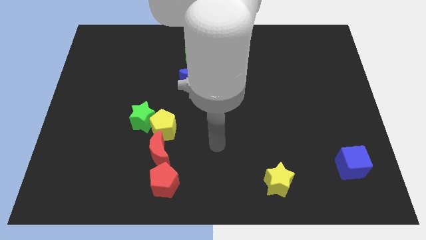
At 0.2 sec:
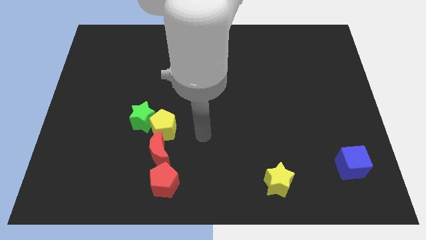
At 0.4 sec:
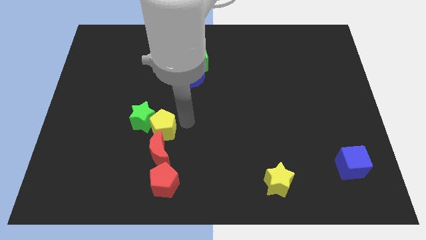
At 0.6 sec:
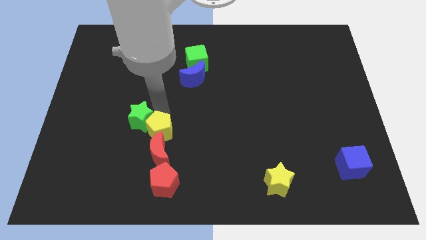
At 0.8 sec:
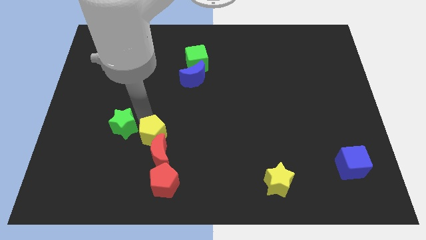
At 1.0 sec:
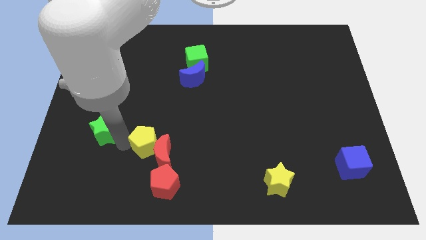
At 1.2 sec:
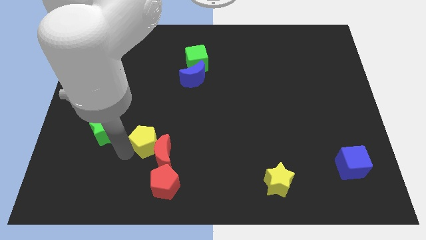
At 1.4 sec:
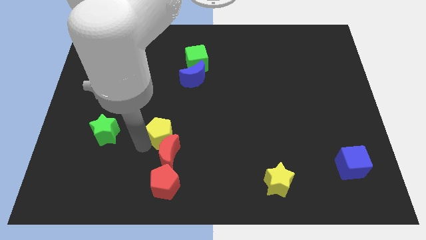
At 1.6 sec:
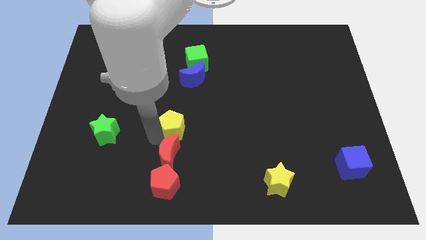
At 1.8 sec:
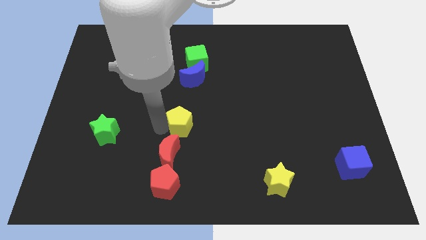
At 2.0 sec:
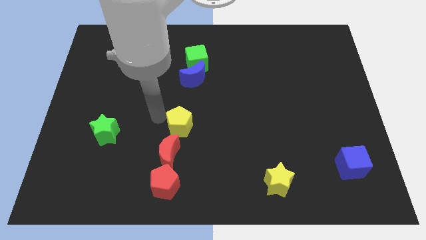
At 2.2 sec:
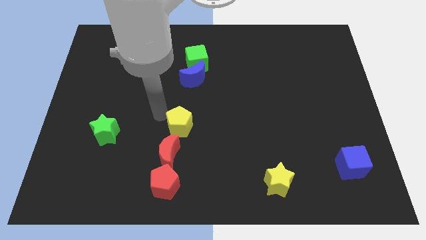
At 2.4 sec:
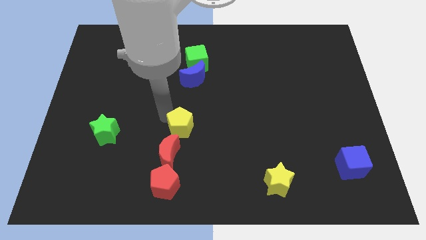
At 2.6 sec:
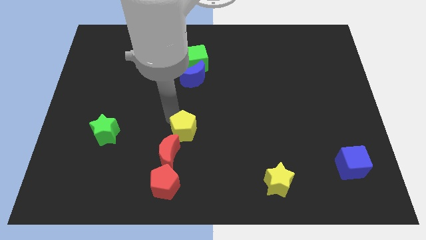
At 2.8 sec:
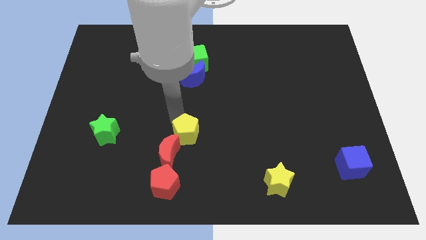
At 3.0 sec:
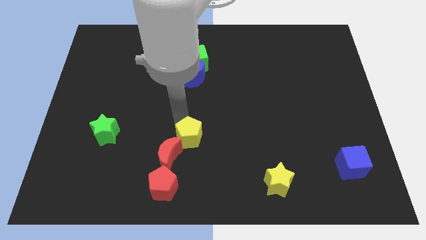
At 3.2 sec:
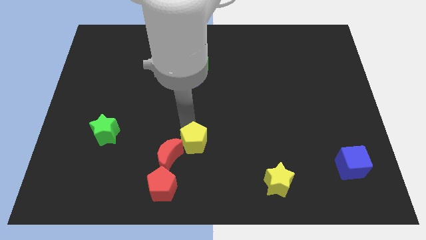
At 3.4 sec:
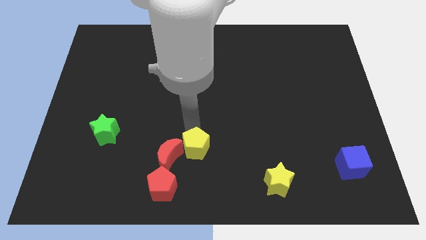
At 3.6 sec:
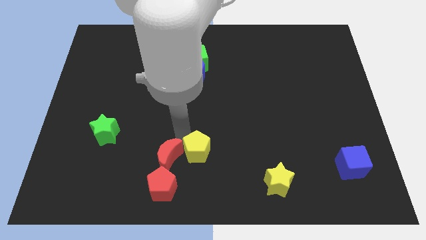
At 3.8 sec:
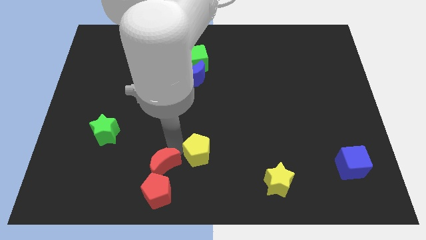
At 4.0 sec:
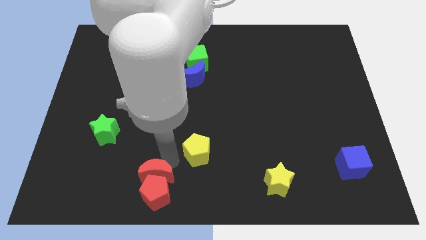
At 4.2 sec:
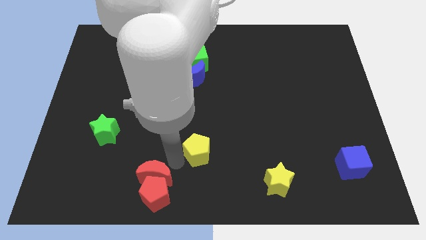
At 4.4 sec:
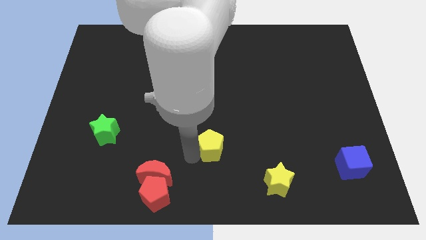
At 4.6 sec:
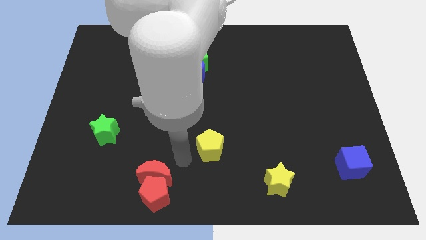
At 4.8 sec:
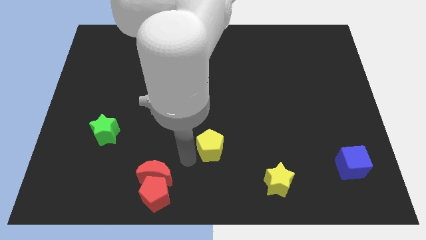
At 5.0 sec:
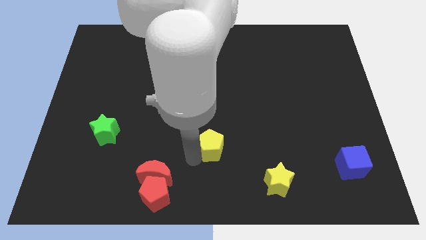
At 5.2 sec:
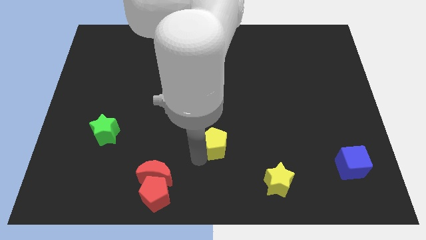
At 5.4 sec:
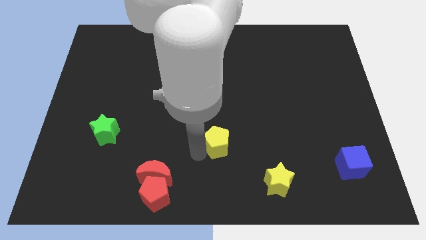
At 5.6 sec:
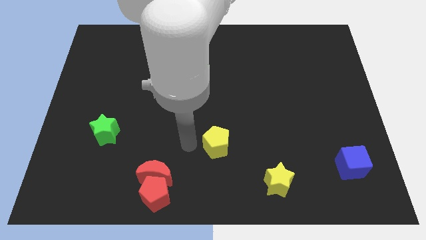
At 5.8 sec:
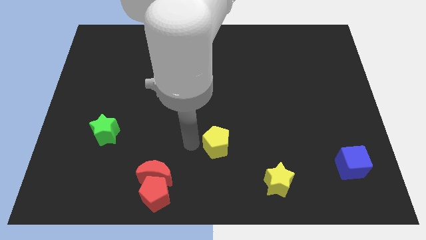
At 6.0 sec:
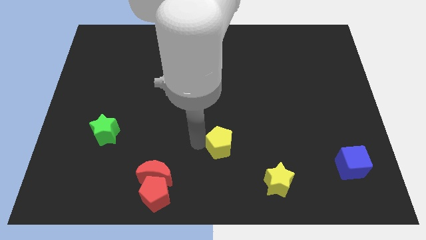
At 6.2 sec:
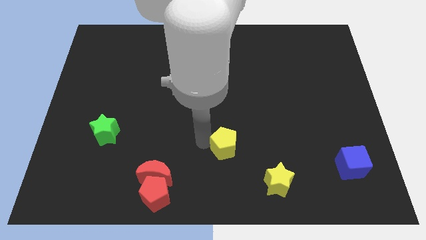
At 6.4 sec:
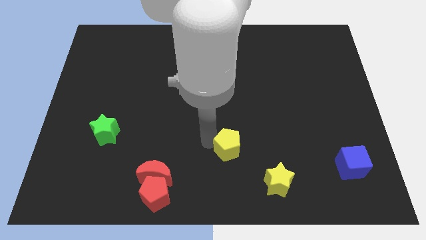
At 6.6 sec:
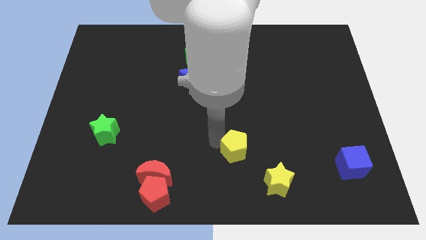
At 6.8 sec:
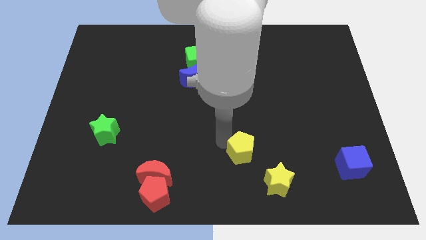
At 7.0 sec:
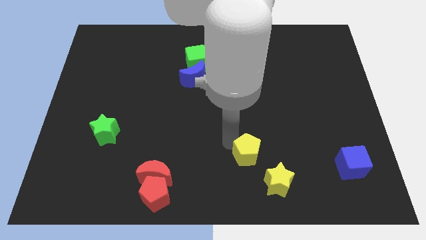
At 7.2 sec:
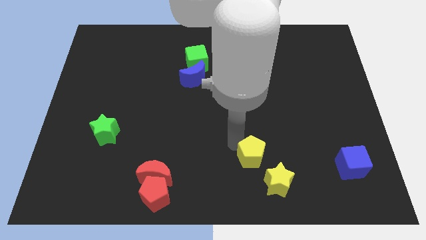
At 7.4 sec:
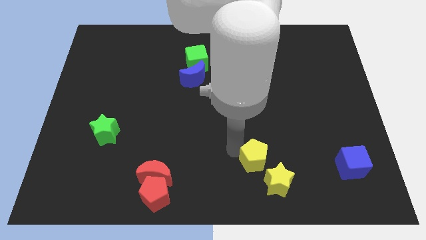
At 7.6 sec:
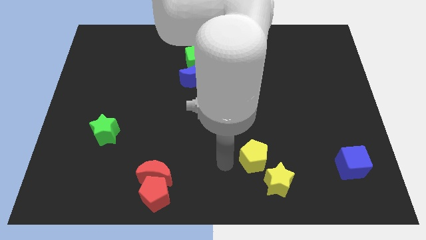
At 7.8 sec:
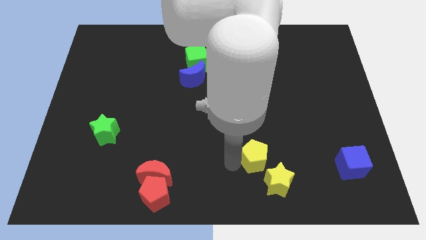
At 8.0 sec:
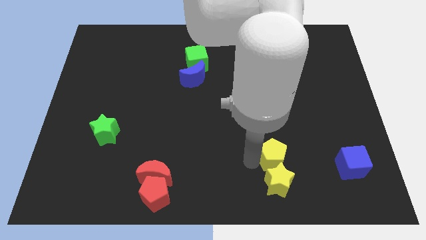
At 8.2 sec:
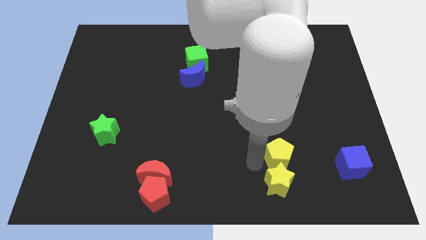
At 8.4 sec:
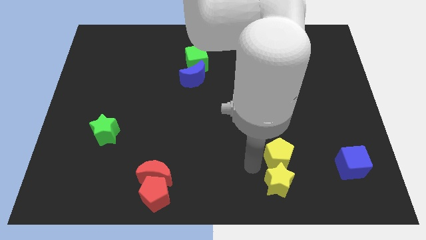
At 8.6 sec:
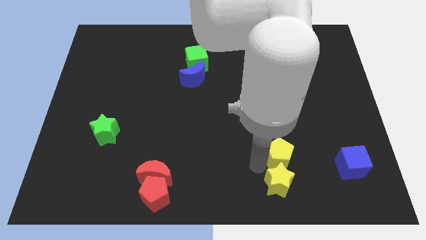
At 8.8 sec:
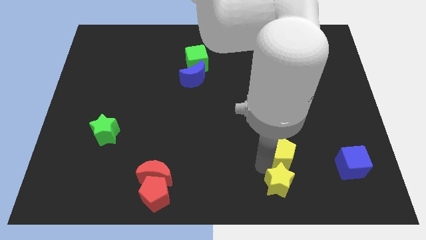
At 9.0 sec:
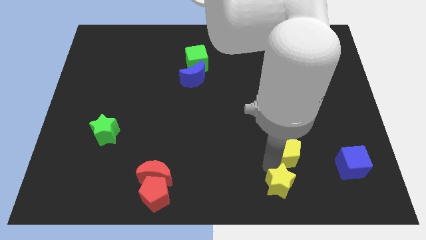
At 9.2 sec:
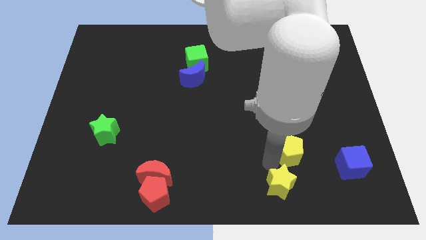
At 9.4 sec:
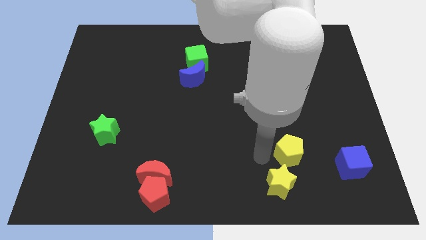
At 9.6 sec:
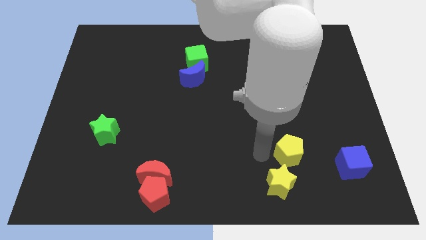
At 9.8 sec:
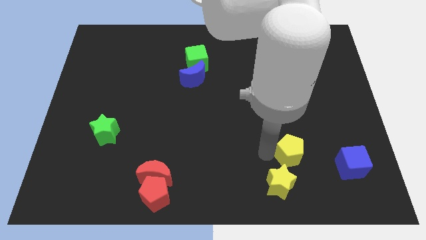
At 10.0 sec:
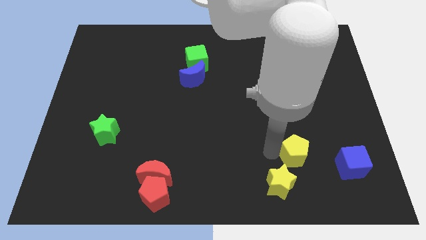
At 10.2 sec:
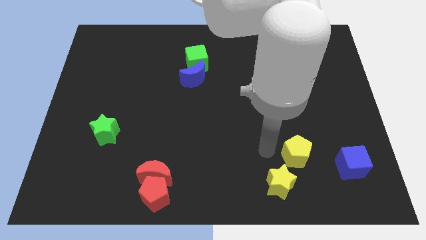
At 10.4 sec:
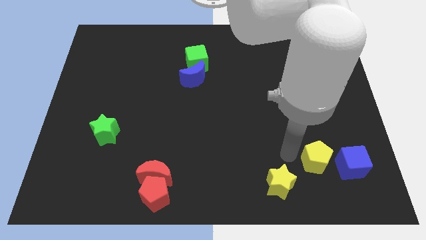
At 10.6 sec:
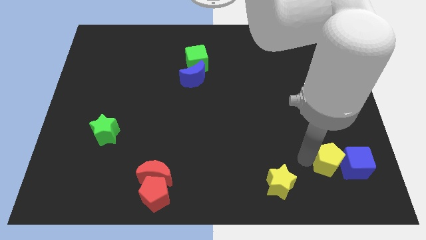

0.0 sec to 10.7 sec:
move the yellow pentagon to the blue cube

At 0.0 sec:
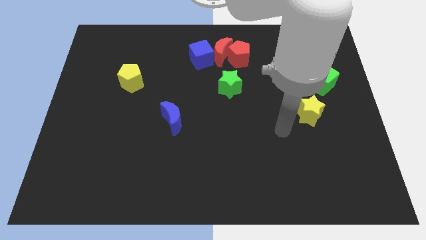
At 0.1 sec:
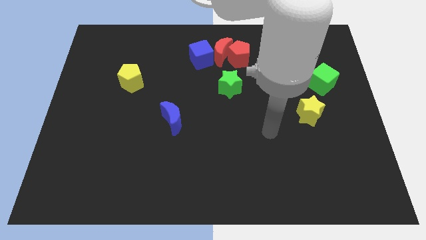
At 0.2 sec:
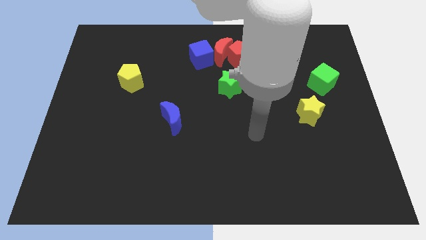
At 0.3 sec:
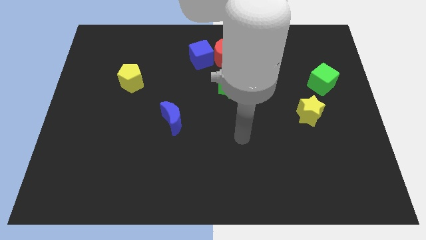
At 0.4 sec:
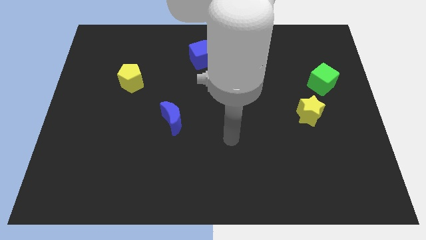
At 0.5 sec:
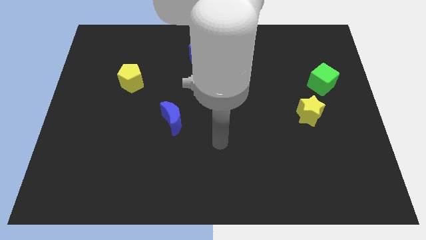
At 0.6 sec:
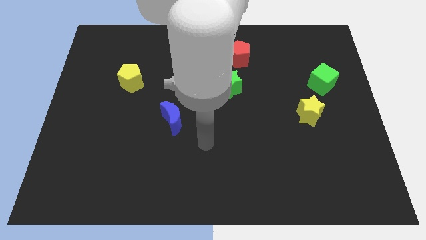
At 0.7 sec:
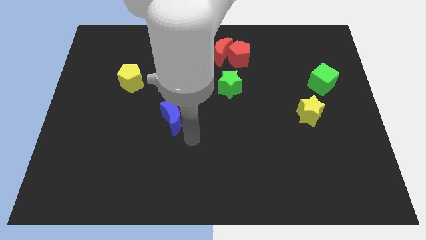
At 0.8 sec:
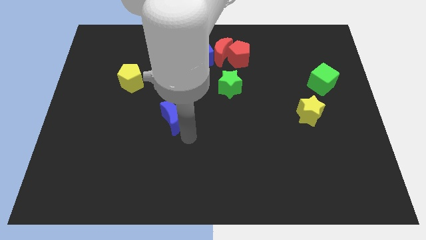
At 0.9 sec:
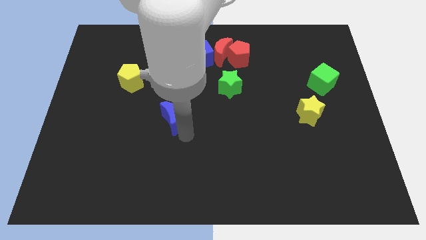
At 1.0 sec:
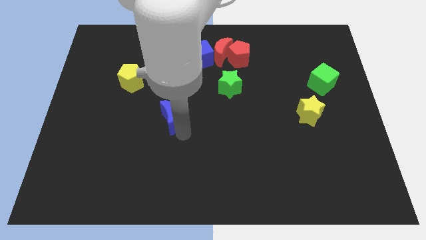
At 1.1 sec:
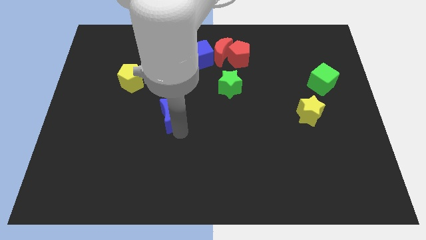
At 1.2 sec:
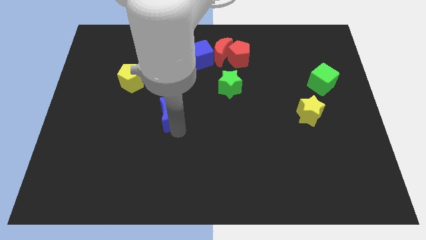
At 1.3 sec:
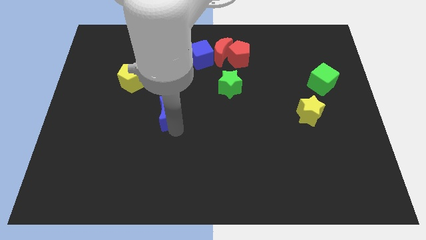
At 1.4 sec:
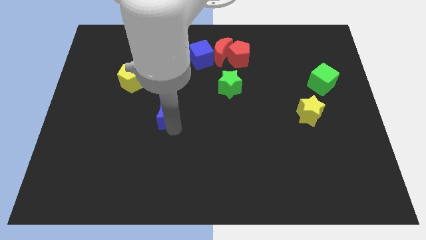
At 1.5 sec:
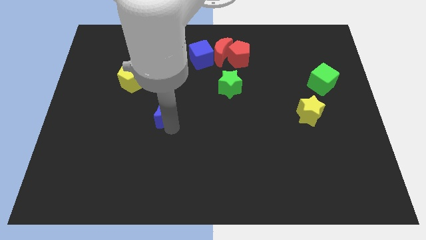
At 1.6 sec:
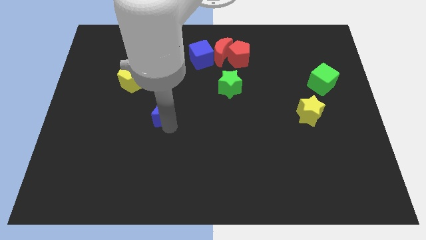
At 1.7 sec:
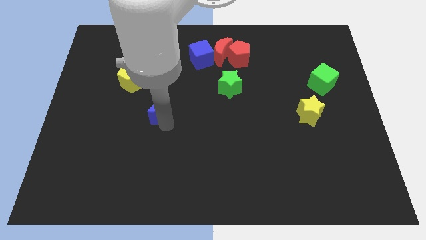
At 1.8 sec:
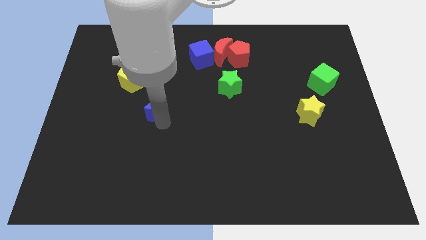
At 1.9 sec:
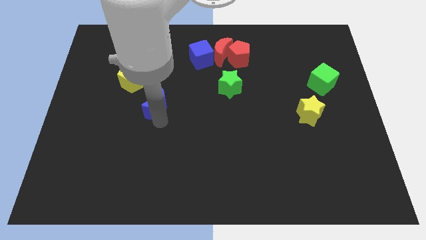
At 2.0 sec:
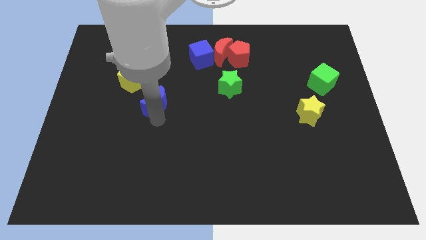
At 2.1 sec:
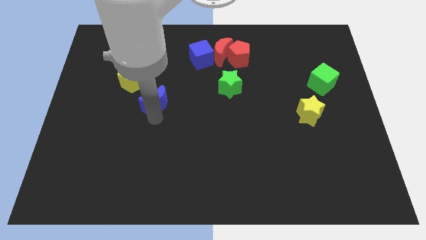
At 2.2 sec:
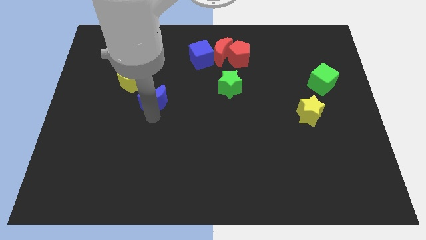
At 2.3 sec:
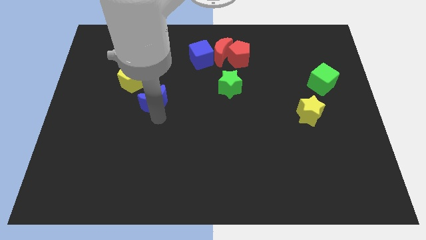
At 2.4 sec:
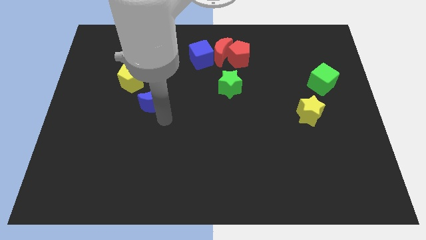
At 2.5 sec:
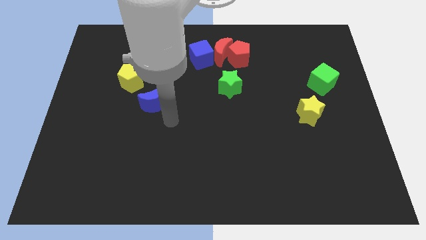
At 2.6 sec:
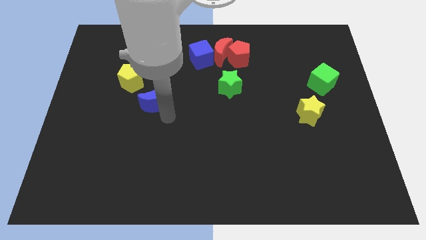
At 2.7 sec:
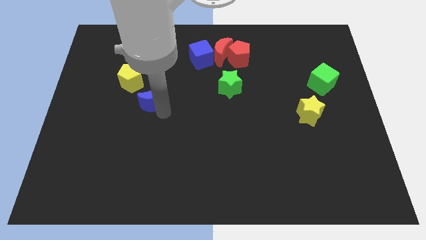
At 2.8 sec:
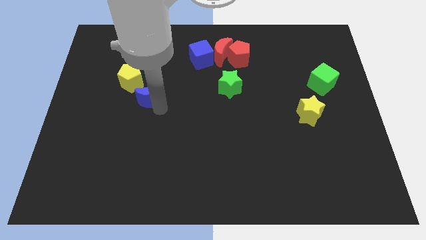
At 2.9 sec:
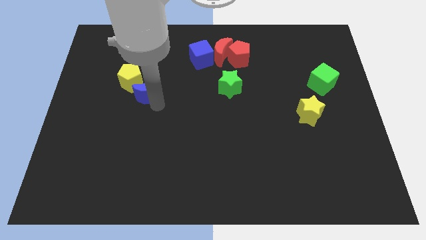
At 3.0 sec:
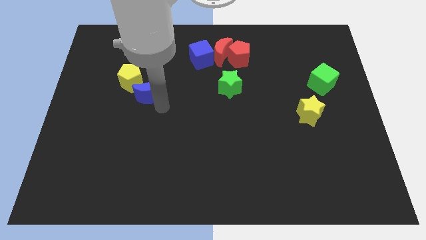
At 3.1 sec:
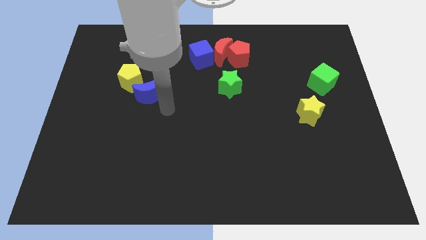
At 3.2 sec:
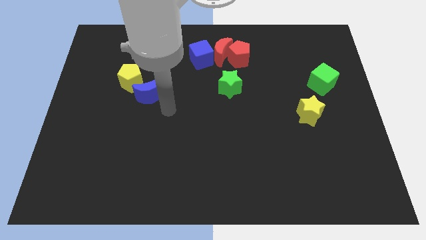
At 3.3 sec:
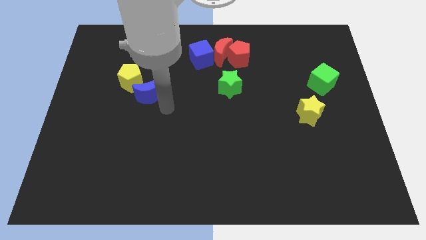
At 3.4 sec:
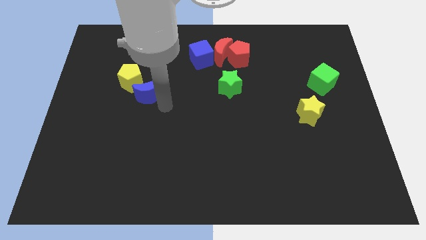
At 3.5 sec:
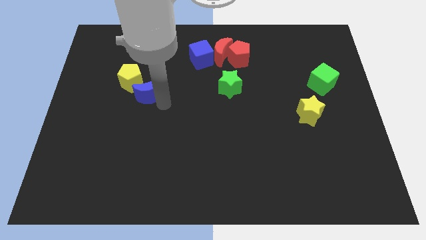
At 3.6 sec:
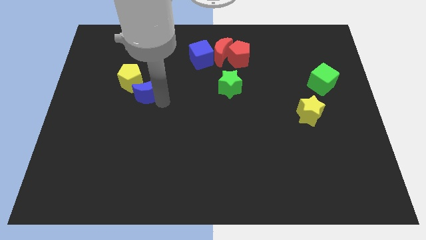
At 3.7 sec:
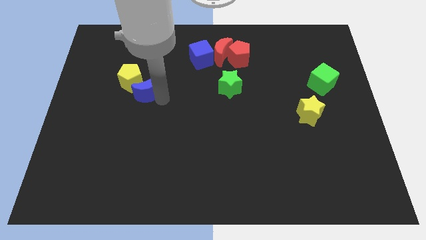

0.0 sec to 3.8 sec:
move the blue moon close to the yellow pentagon
